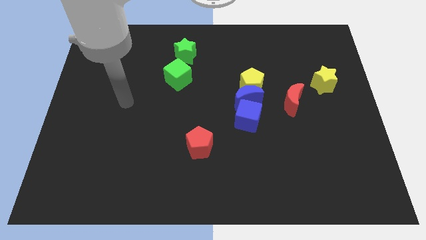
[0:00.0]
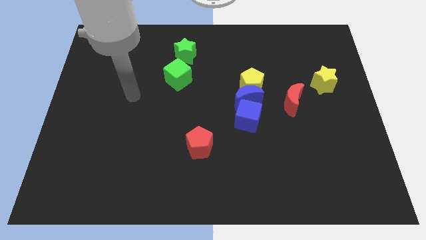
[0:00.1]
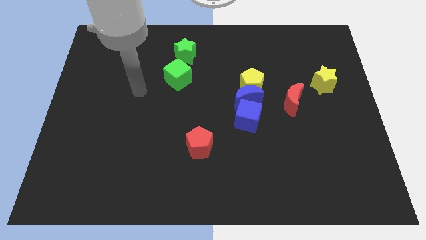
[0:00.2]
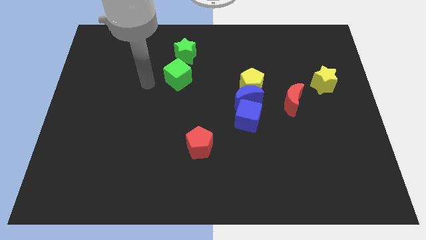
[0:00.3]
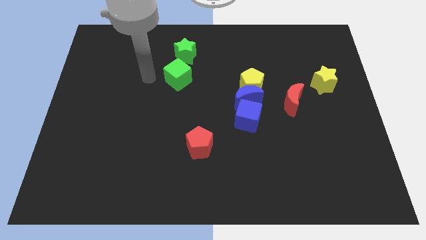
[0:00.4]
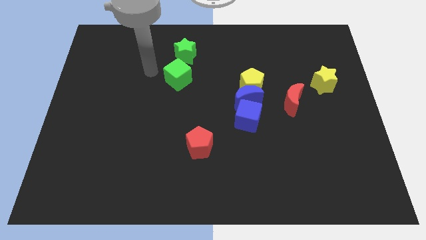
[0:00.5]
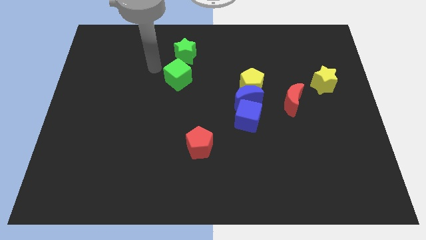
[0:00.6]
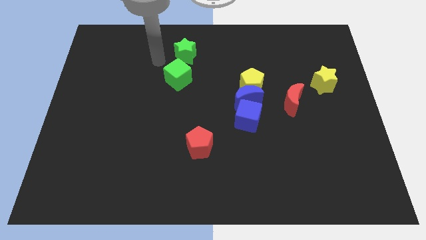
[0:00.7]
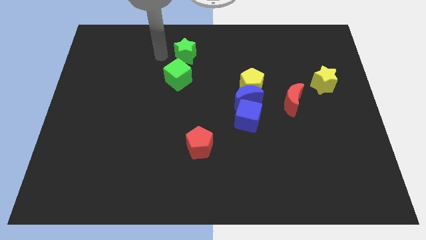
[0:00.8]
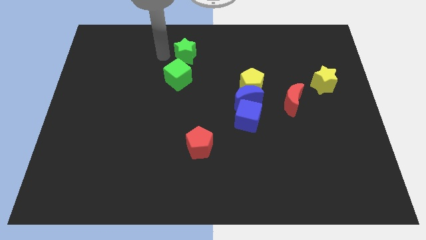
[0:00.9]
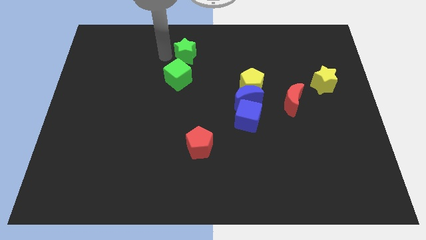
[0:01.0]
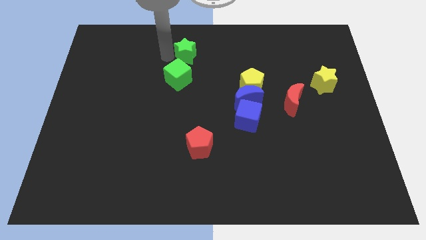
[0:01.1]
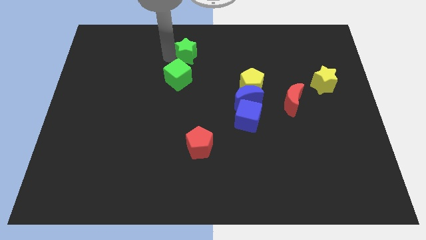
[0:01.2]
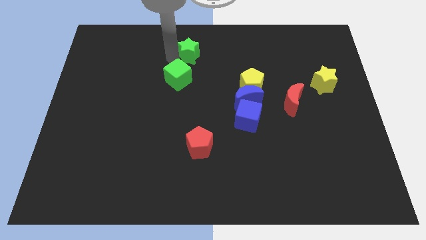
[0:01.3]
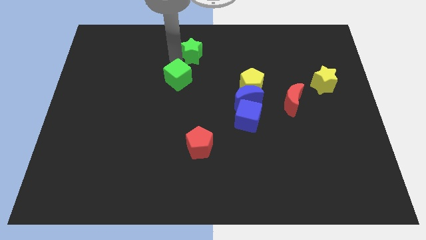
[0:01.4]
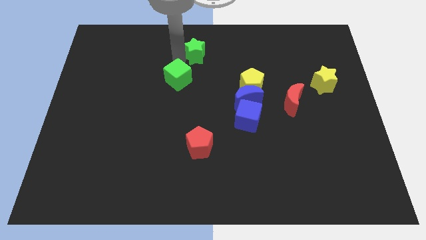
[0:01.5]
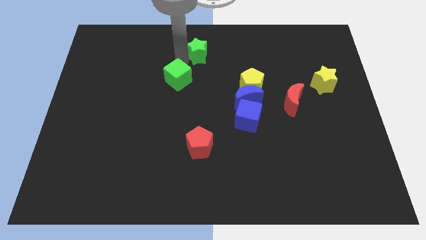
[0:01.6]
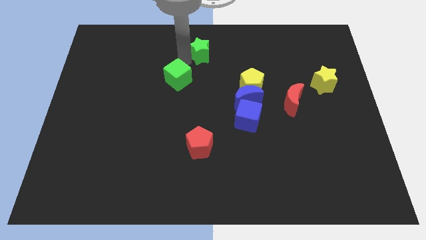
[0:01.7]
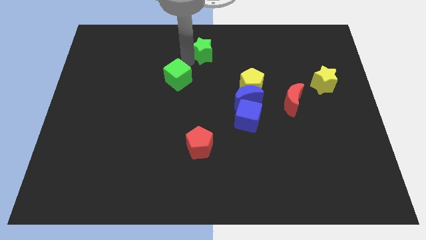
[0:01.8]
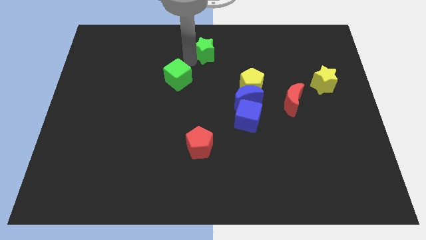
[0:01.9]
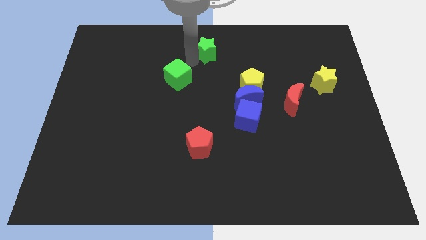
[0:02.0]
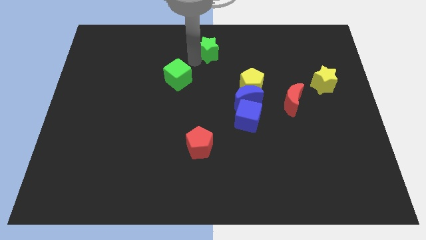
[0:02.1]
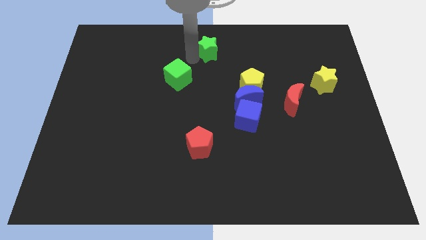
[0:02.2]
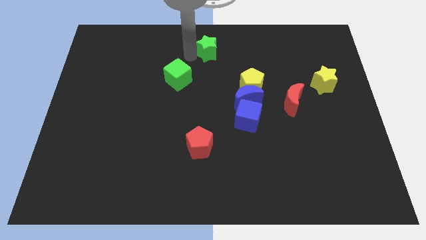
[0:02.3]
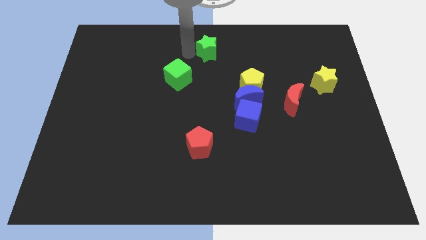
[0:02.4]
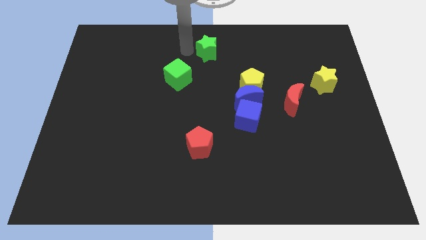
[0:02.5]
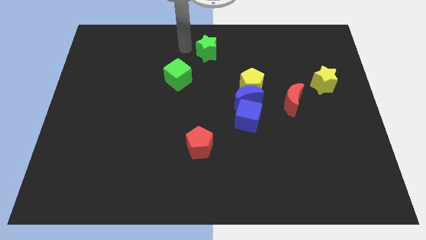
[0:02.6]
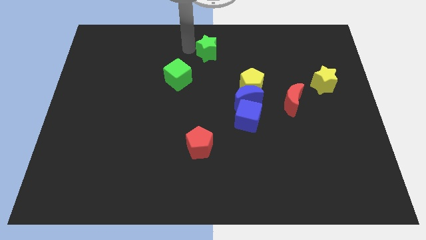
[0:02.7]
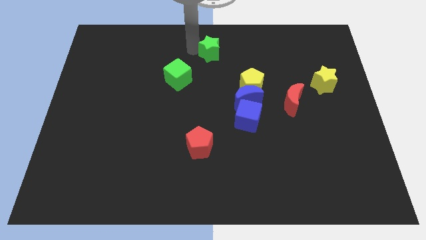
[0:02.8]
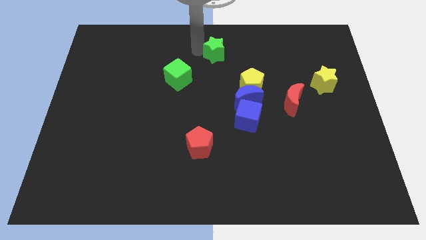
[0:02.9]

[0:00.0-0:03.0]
push the green star right a little bit

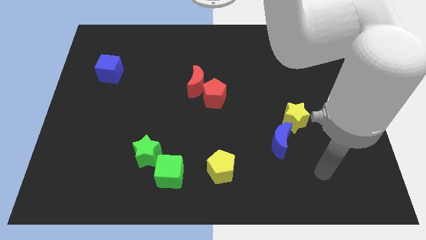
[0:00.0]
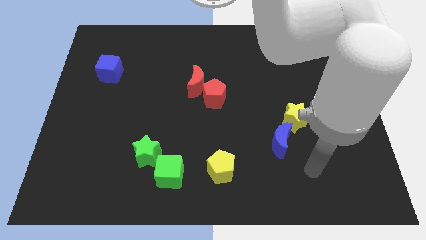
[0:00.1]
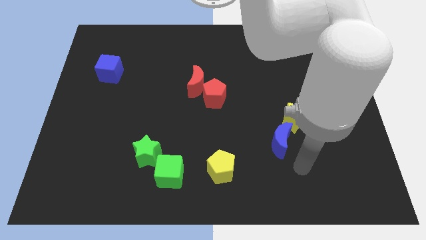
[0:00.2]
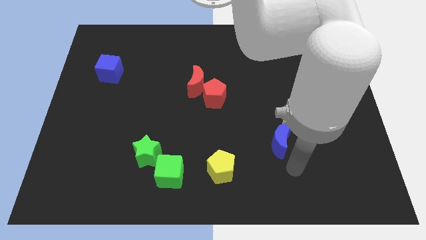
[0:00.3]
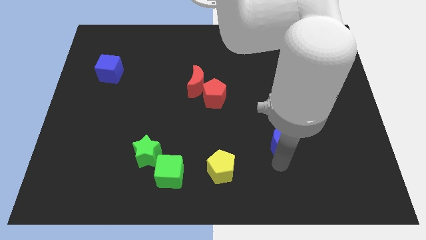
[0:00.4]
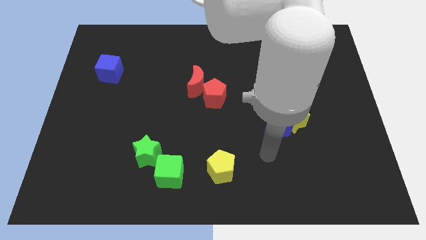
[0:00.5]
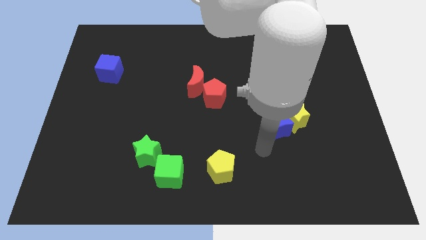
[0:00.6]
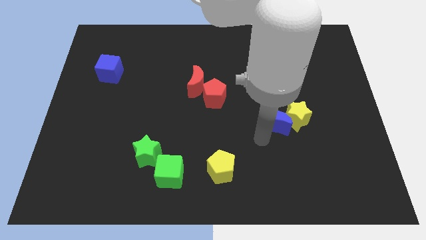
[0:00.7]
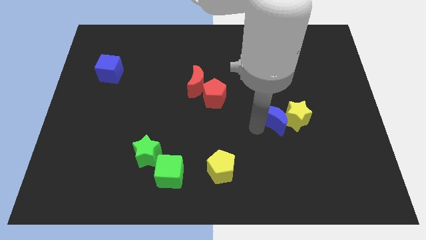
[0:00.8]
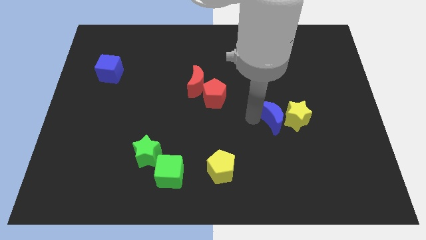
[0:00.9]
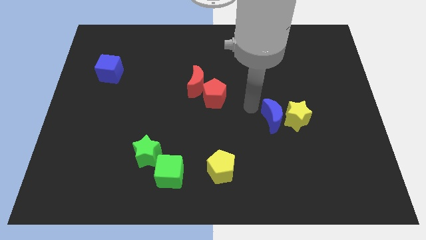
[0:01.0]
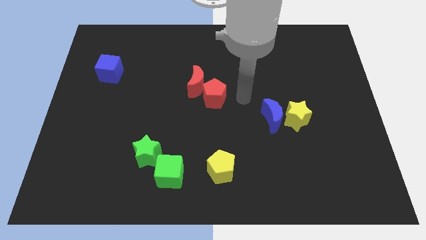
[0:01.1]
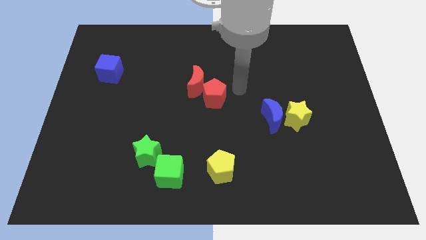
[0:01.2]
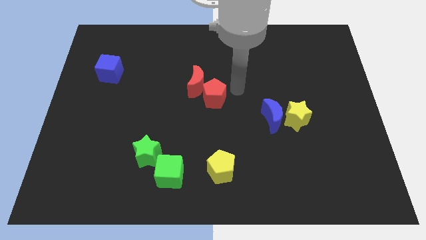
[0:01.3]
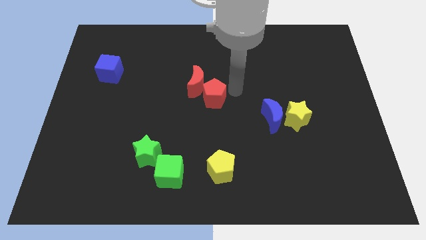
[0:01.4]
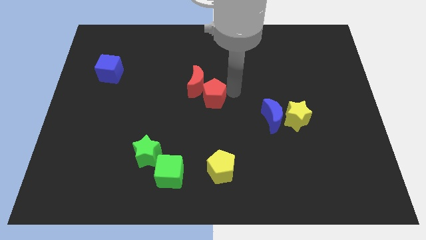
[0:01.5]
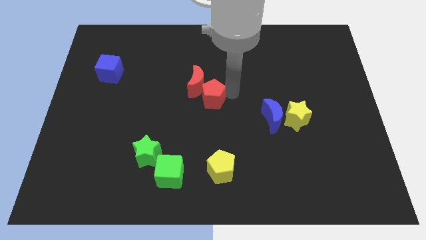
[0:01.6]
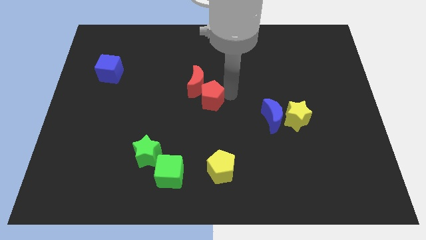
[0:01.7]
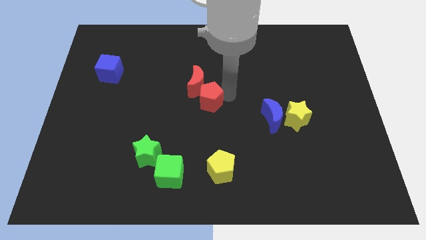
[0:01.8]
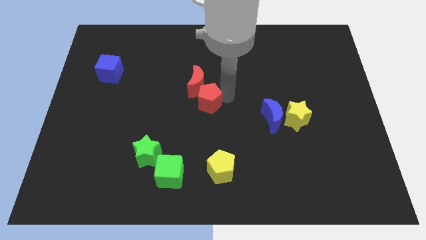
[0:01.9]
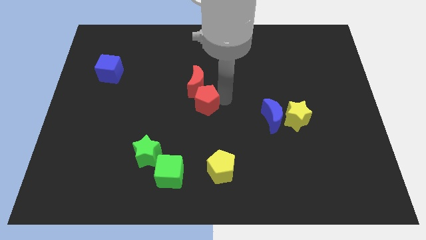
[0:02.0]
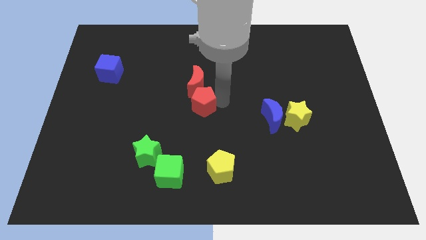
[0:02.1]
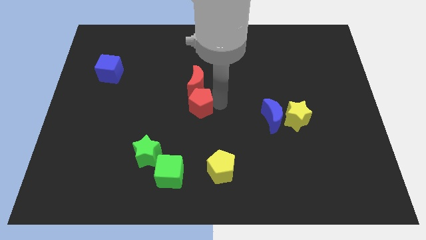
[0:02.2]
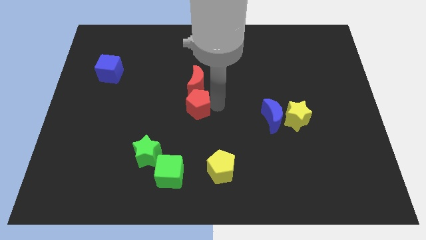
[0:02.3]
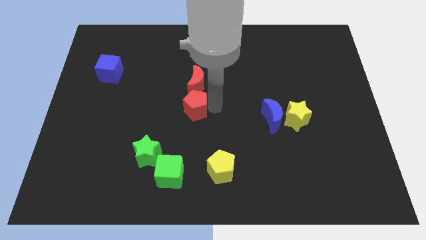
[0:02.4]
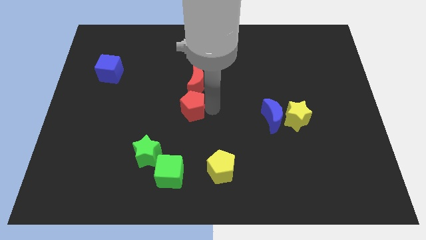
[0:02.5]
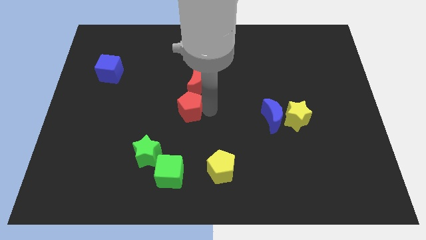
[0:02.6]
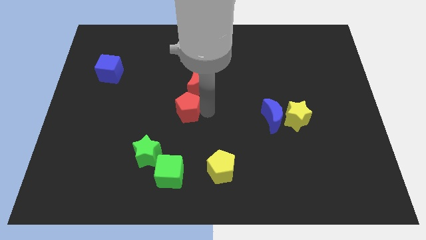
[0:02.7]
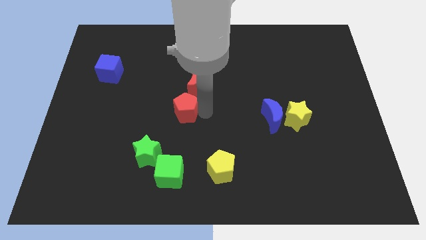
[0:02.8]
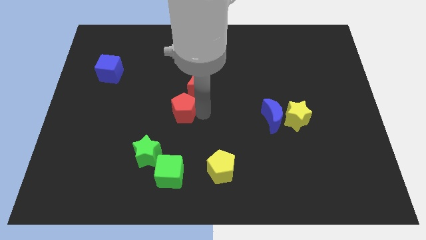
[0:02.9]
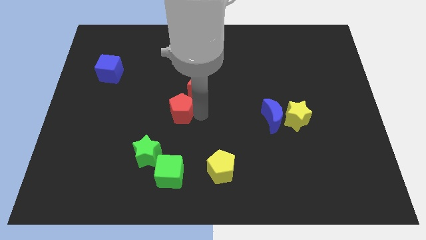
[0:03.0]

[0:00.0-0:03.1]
move the red pentagon to the left a little

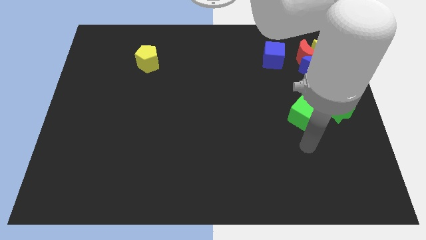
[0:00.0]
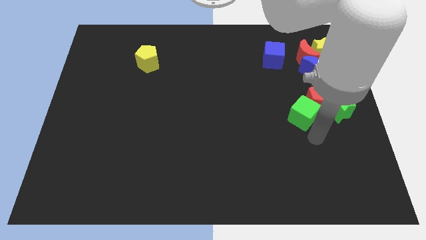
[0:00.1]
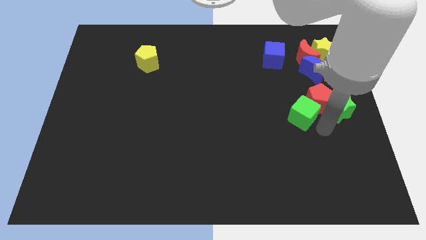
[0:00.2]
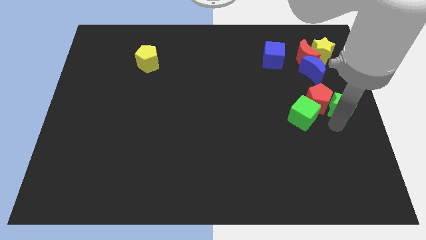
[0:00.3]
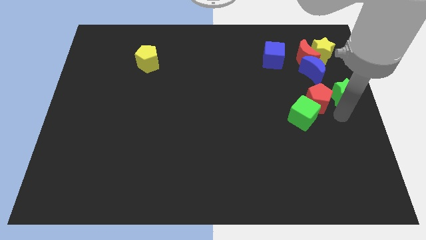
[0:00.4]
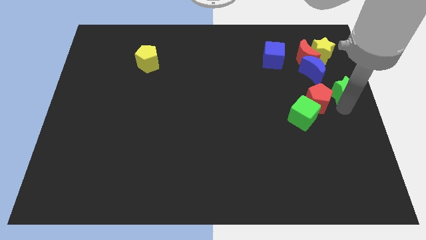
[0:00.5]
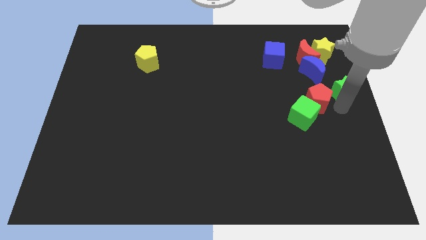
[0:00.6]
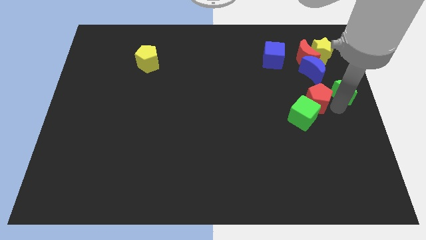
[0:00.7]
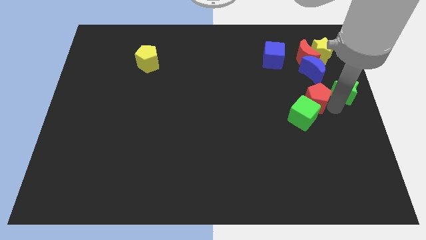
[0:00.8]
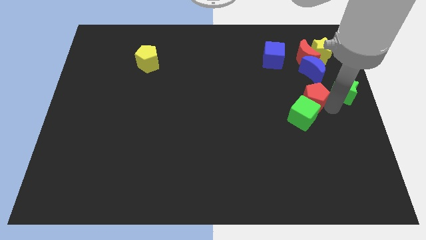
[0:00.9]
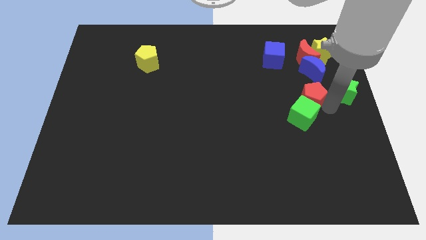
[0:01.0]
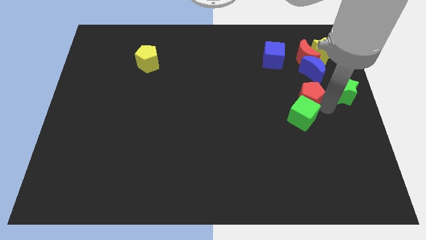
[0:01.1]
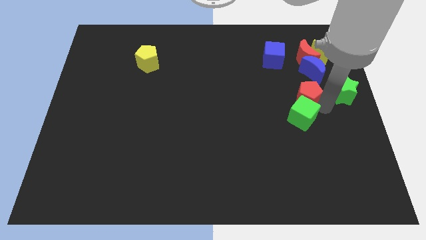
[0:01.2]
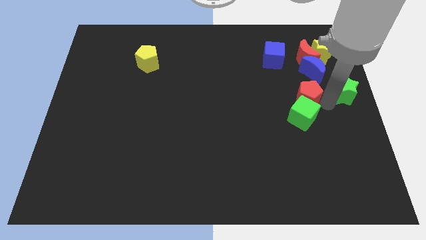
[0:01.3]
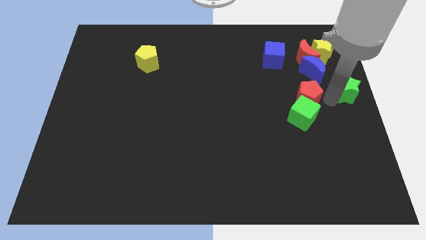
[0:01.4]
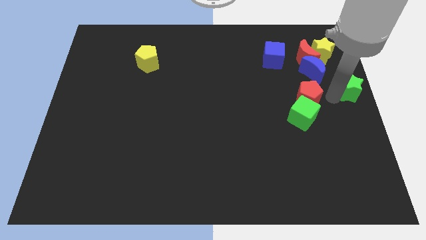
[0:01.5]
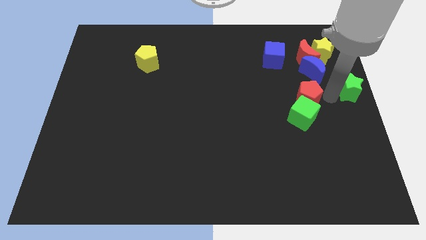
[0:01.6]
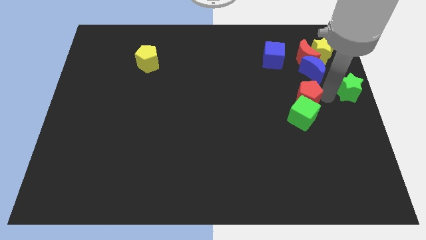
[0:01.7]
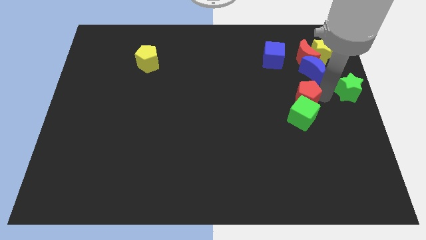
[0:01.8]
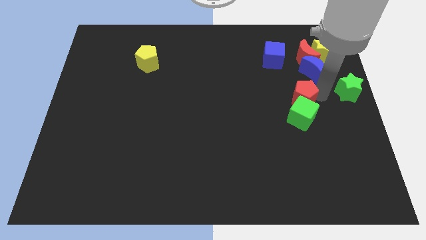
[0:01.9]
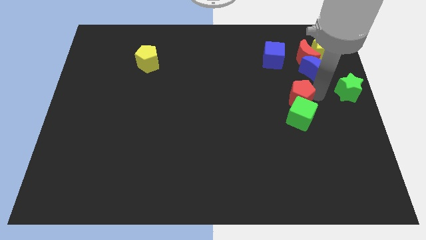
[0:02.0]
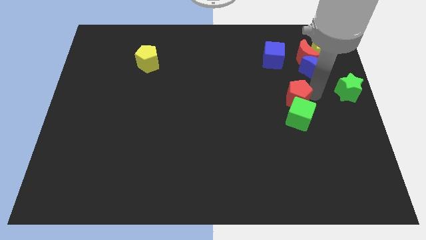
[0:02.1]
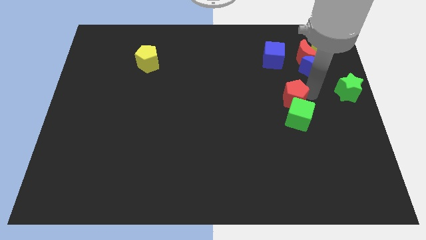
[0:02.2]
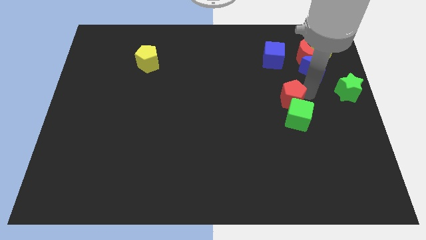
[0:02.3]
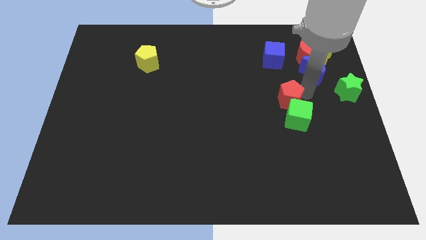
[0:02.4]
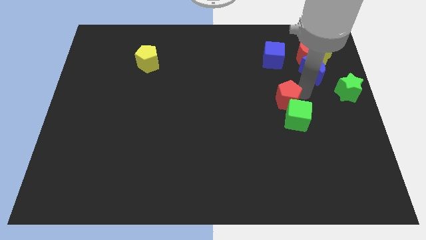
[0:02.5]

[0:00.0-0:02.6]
slightly move the red pentagon to the left
